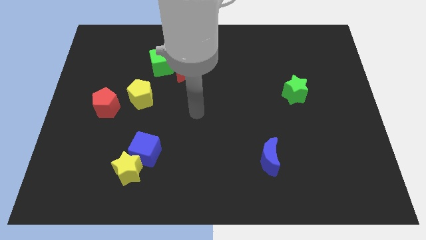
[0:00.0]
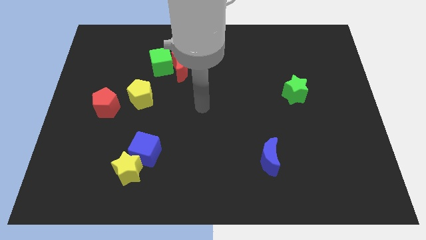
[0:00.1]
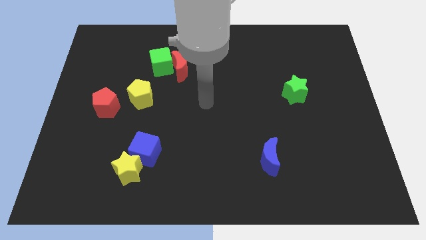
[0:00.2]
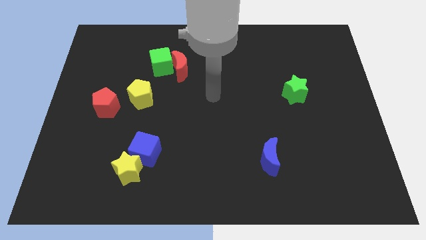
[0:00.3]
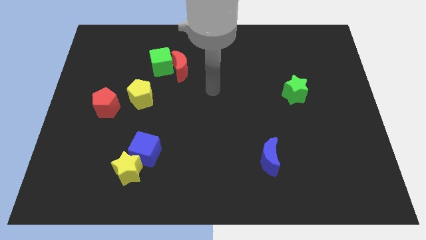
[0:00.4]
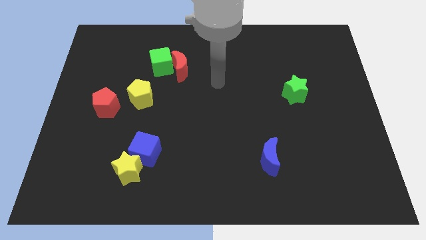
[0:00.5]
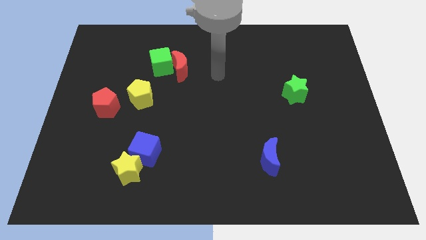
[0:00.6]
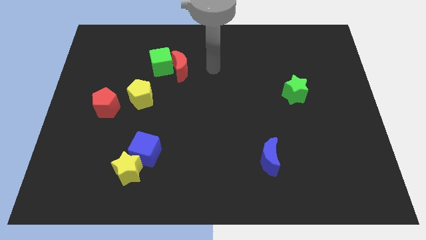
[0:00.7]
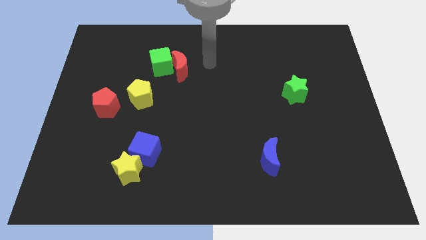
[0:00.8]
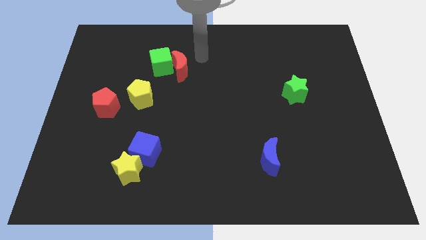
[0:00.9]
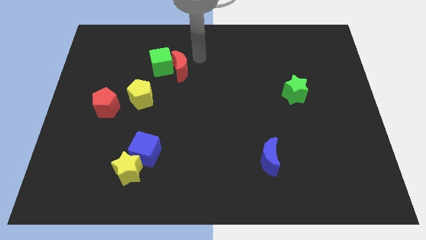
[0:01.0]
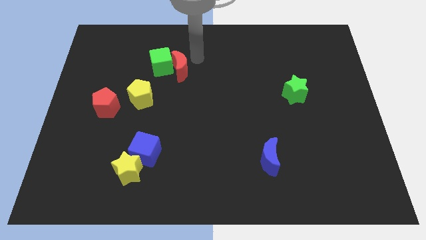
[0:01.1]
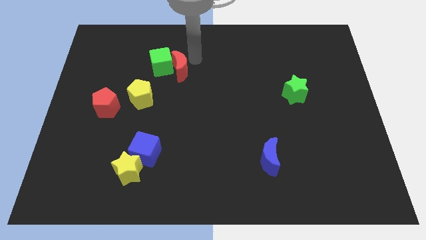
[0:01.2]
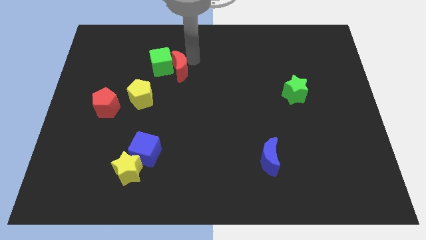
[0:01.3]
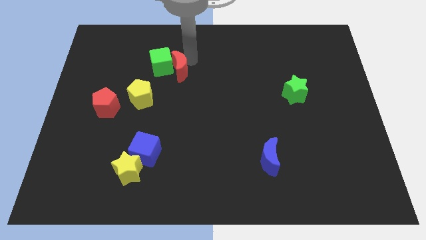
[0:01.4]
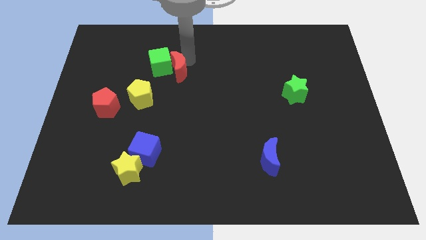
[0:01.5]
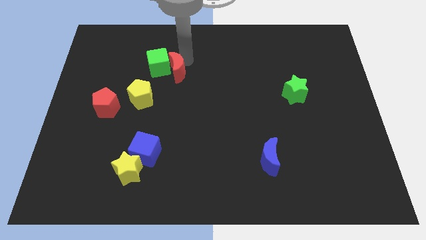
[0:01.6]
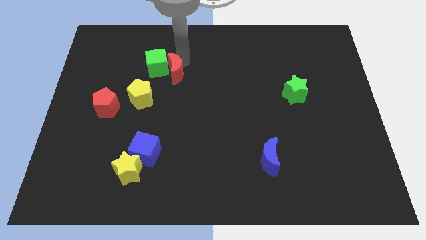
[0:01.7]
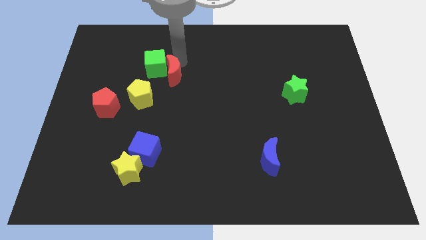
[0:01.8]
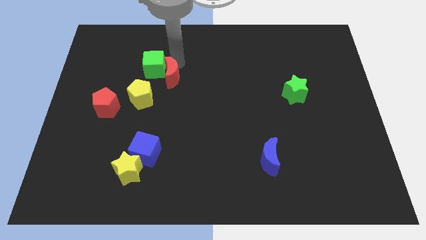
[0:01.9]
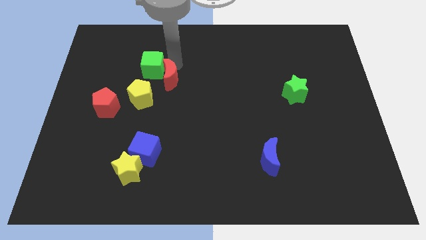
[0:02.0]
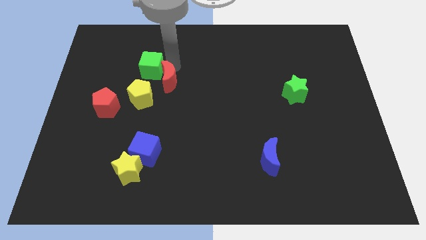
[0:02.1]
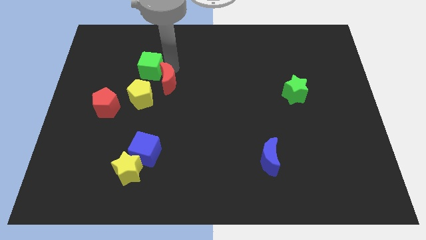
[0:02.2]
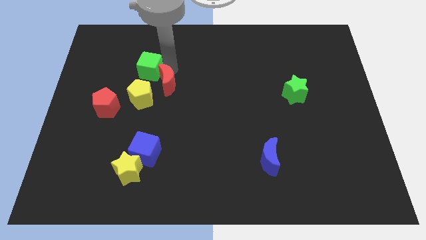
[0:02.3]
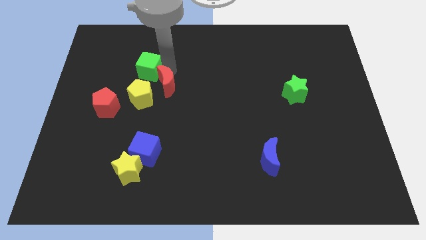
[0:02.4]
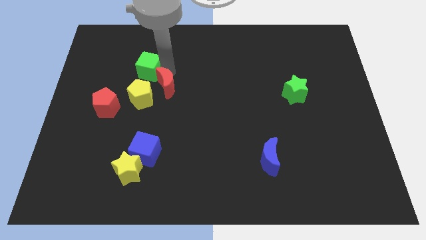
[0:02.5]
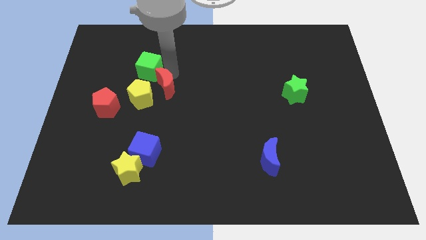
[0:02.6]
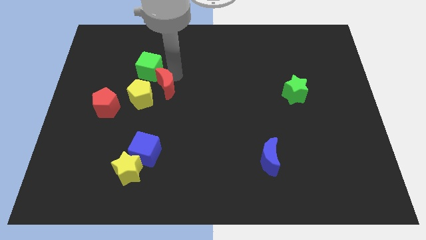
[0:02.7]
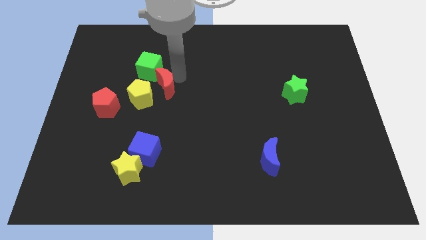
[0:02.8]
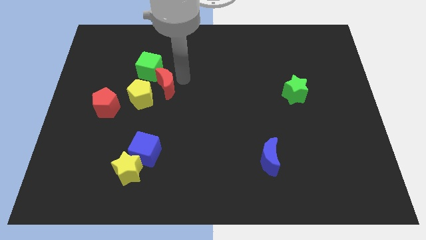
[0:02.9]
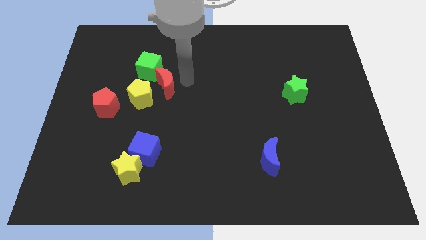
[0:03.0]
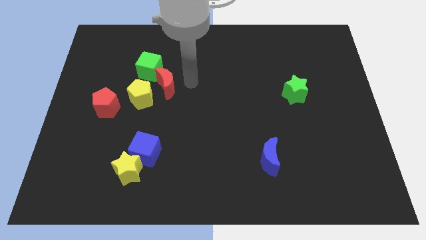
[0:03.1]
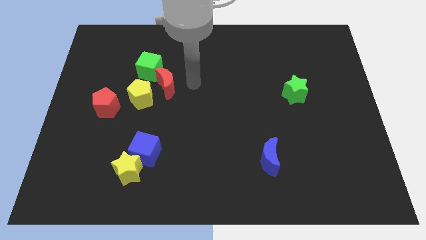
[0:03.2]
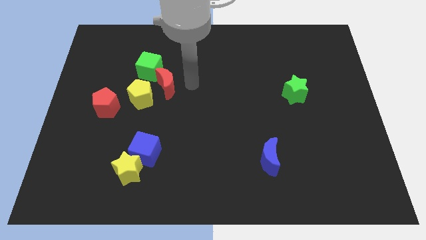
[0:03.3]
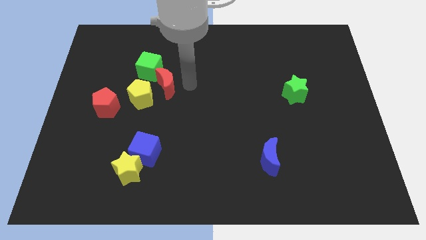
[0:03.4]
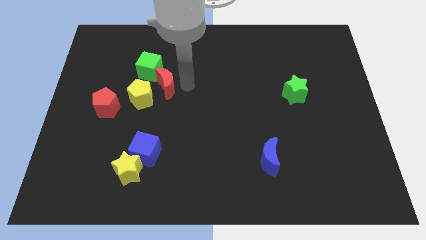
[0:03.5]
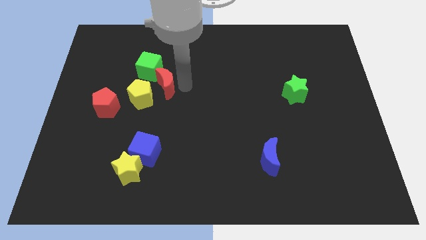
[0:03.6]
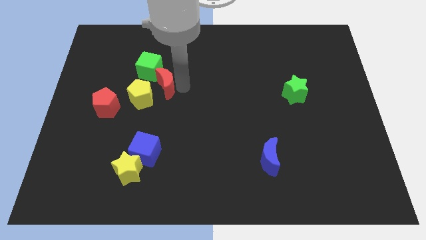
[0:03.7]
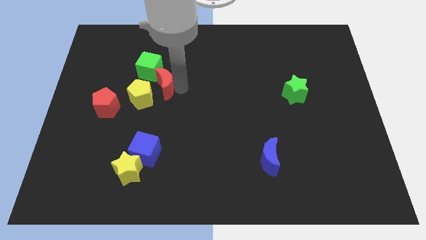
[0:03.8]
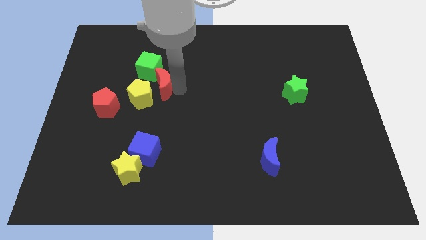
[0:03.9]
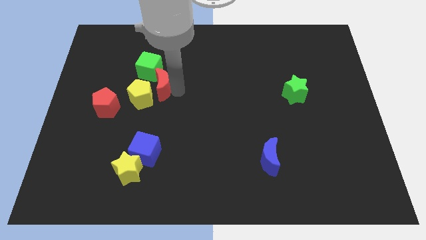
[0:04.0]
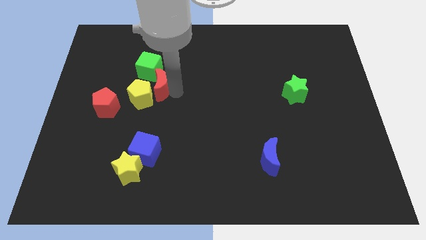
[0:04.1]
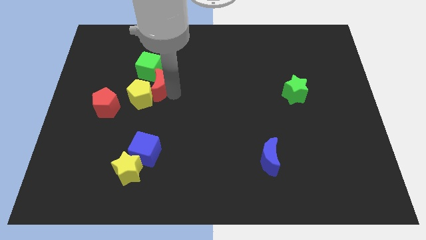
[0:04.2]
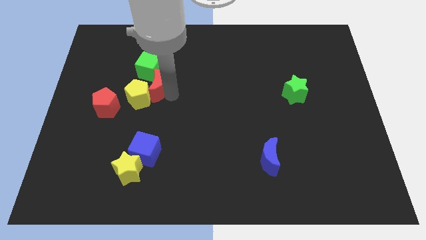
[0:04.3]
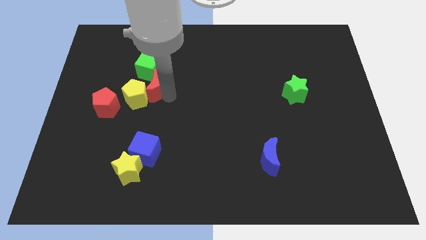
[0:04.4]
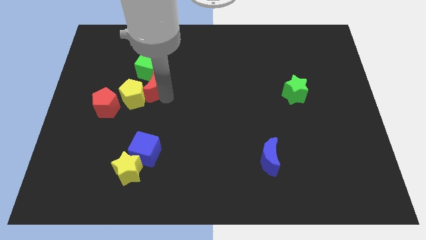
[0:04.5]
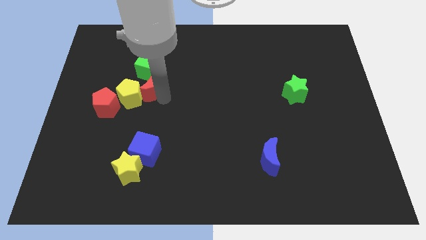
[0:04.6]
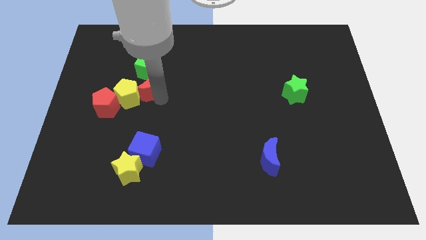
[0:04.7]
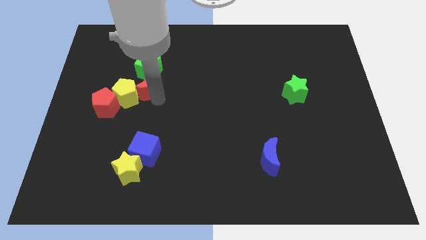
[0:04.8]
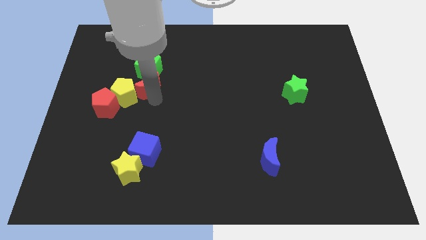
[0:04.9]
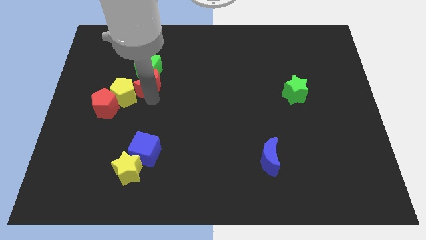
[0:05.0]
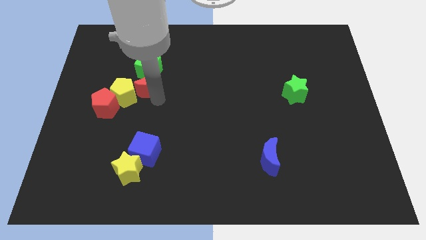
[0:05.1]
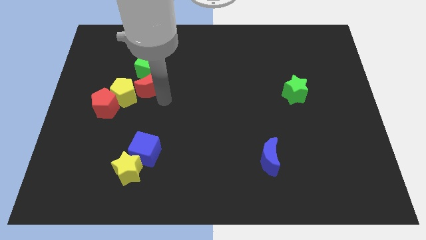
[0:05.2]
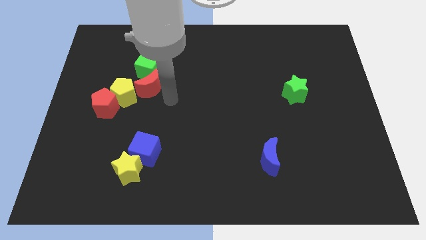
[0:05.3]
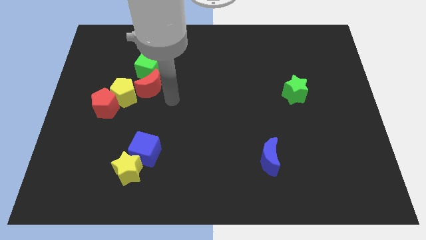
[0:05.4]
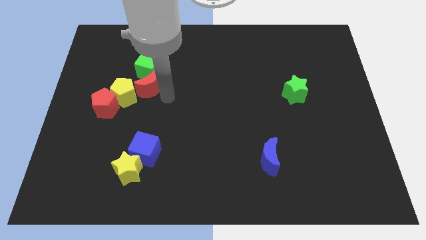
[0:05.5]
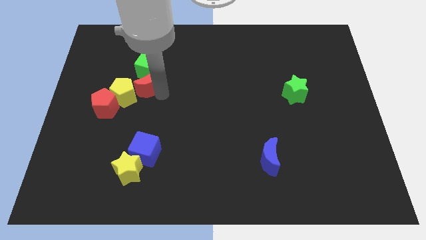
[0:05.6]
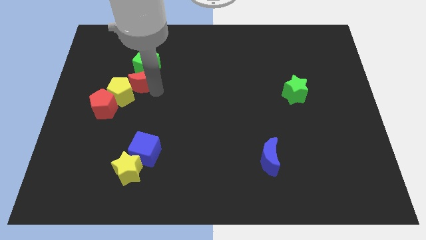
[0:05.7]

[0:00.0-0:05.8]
slide the red moon a bit left

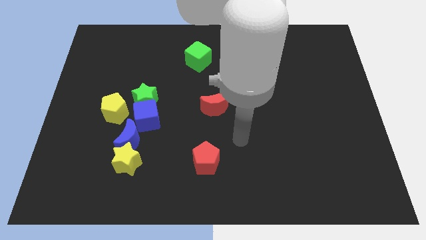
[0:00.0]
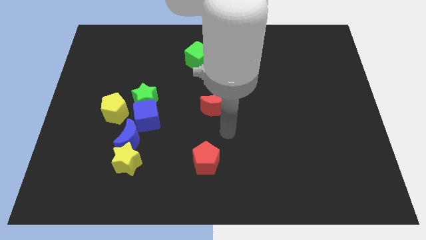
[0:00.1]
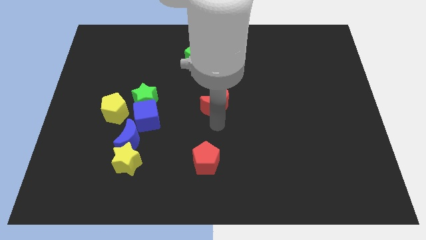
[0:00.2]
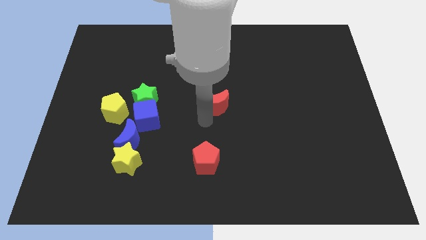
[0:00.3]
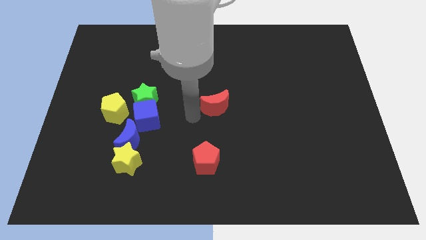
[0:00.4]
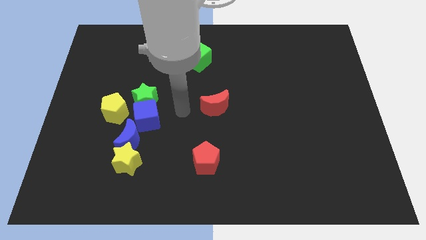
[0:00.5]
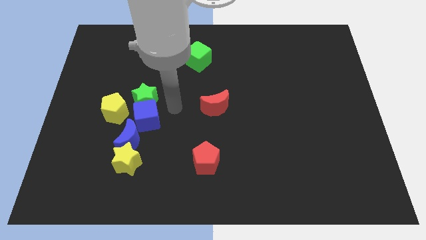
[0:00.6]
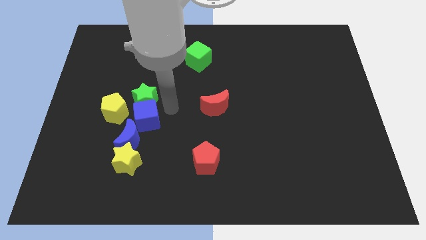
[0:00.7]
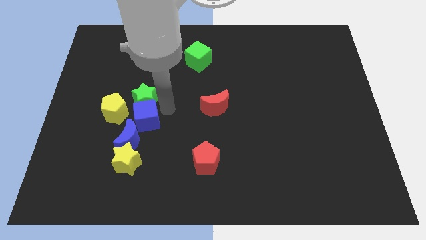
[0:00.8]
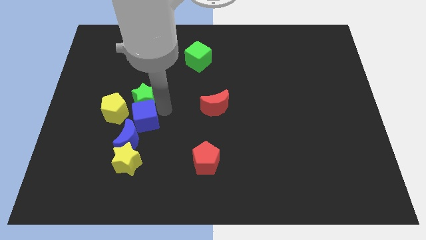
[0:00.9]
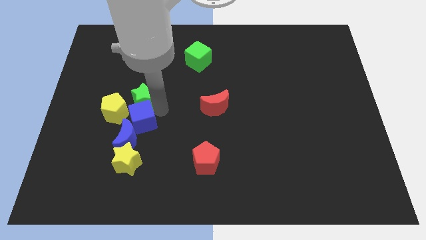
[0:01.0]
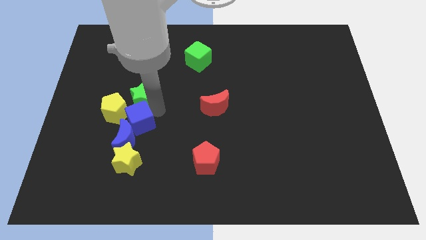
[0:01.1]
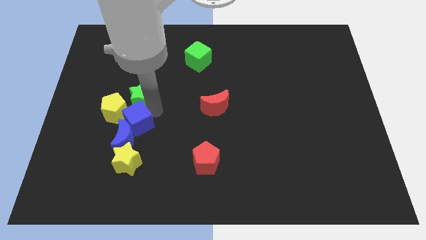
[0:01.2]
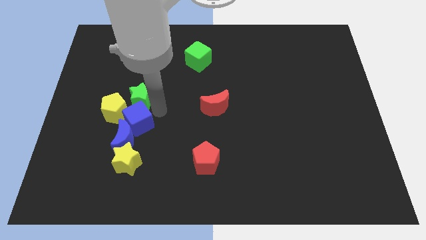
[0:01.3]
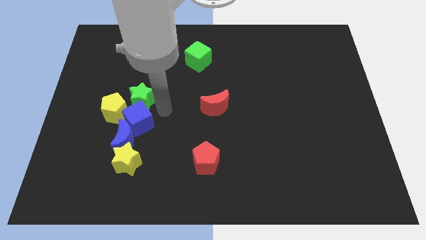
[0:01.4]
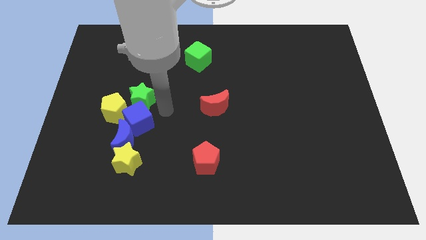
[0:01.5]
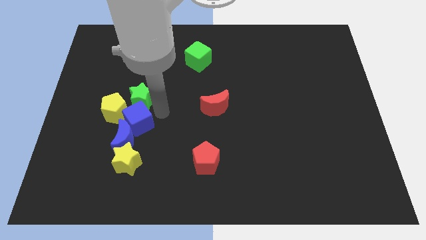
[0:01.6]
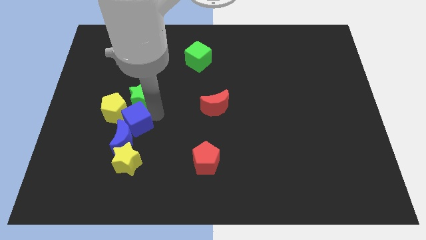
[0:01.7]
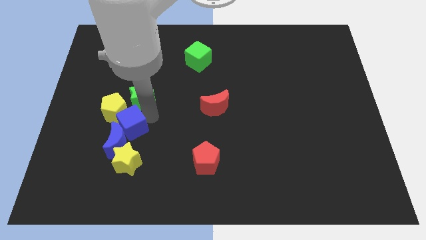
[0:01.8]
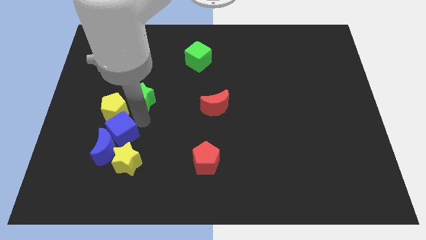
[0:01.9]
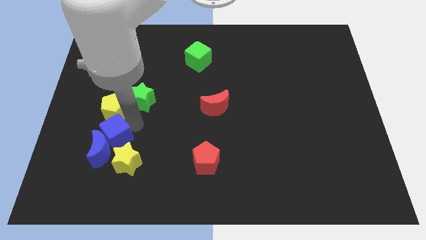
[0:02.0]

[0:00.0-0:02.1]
move the blue cube down and left a little
